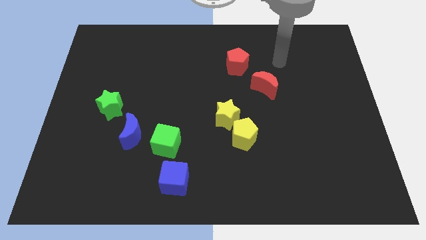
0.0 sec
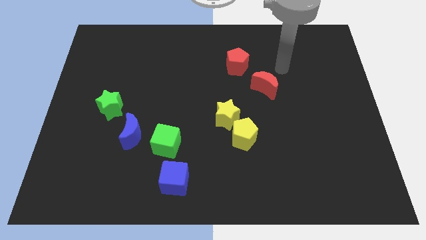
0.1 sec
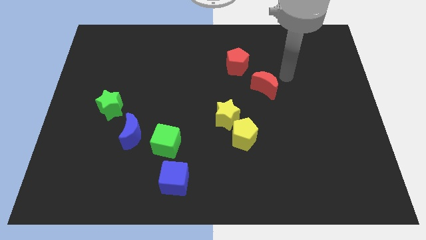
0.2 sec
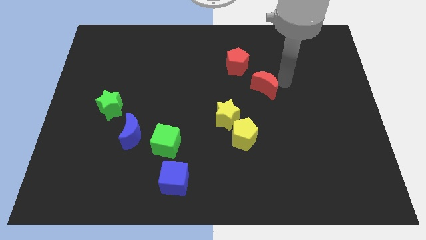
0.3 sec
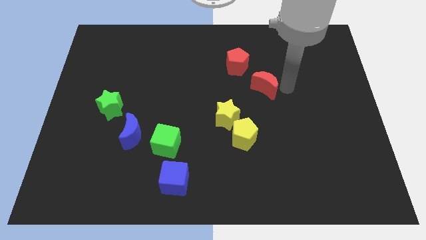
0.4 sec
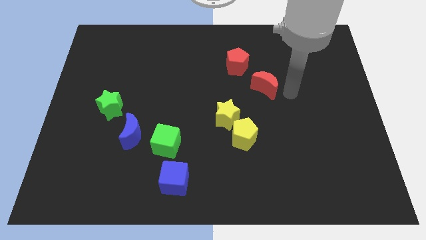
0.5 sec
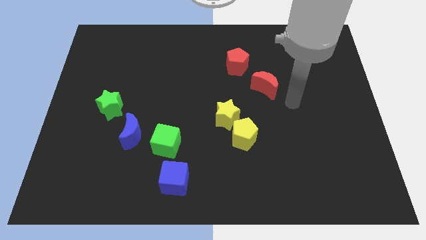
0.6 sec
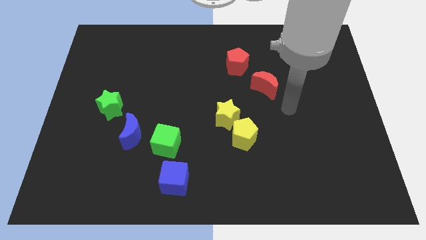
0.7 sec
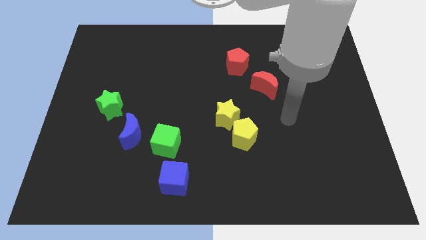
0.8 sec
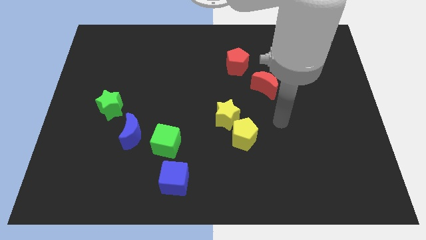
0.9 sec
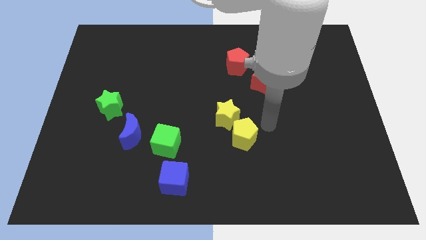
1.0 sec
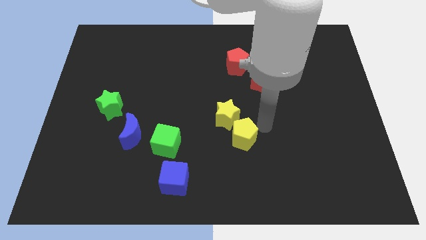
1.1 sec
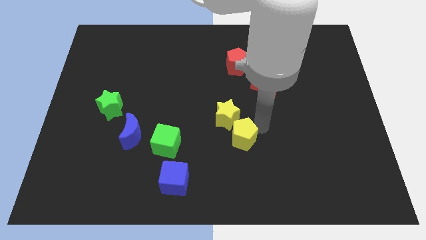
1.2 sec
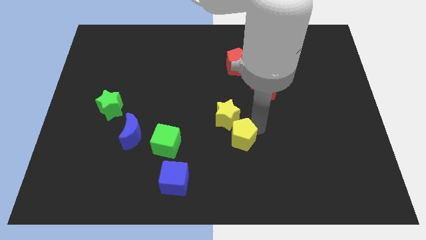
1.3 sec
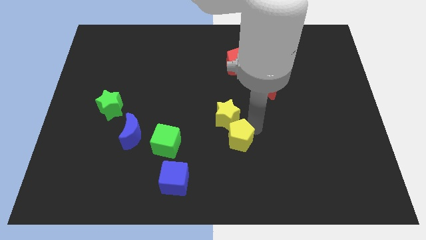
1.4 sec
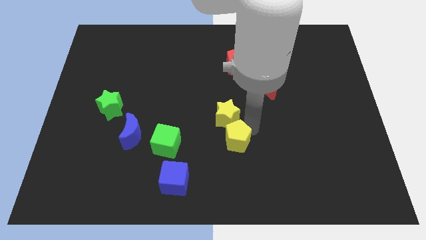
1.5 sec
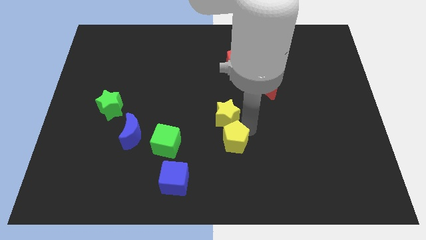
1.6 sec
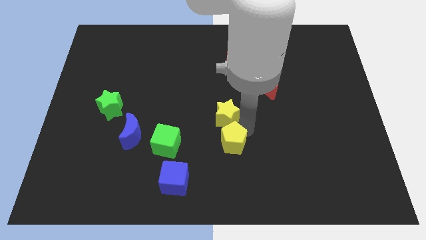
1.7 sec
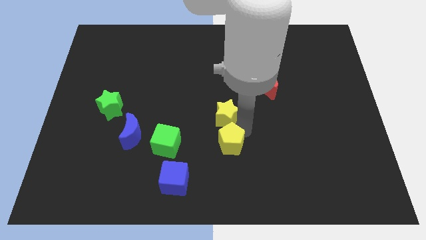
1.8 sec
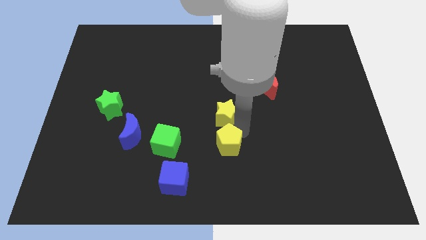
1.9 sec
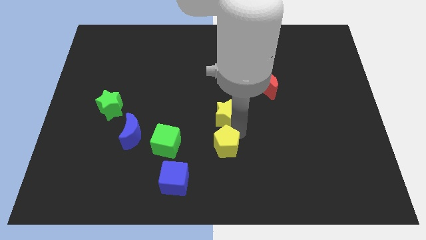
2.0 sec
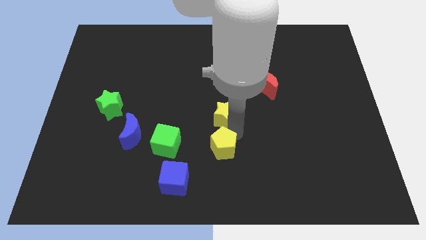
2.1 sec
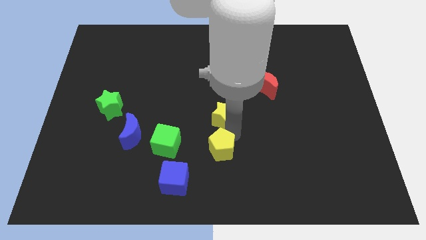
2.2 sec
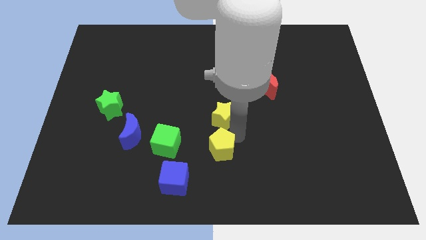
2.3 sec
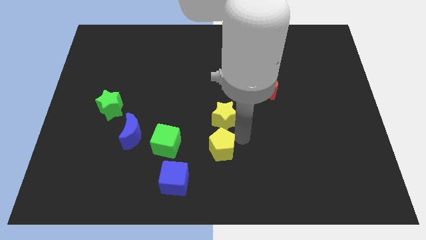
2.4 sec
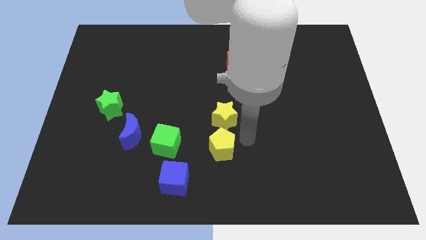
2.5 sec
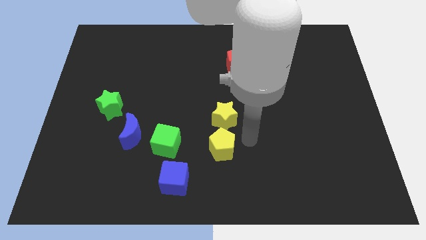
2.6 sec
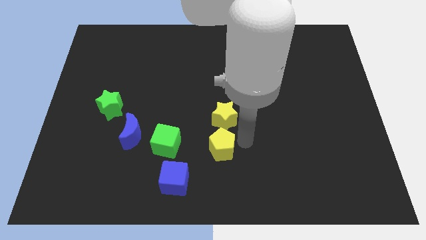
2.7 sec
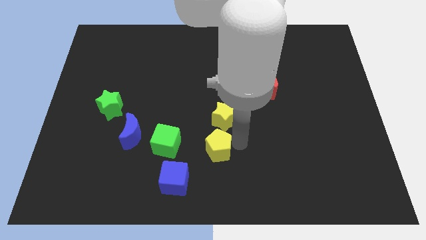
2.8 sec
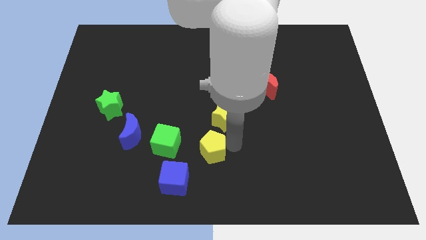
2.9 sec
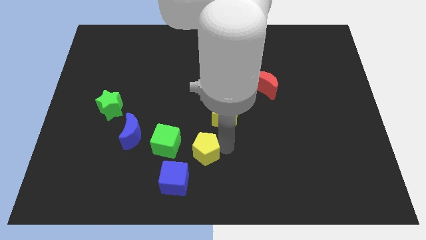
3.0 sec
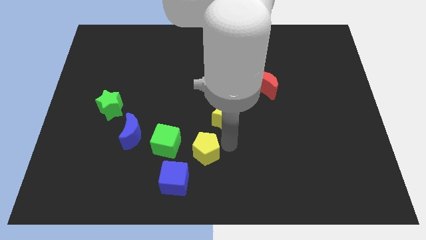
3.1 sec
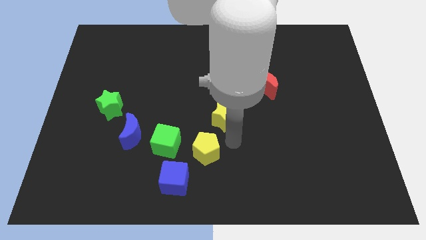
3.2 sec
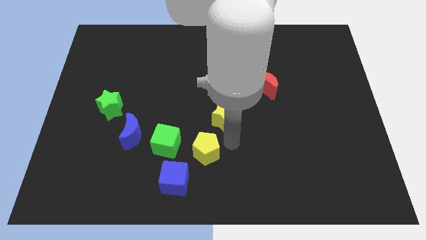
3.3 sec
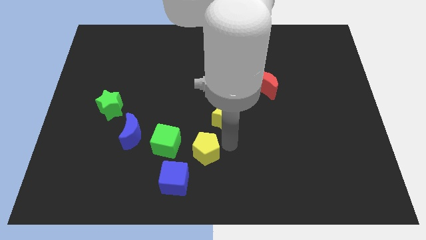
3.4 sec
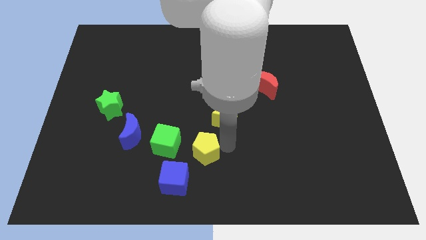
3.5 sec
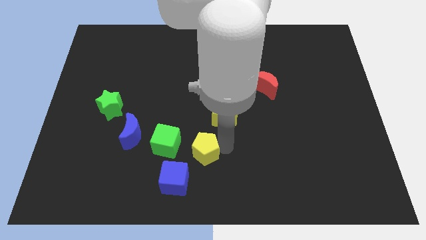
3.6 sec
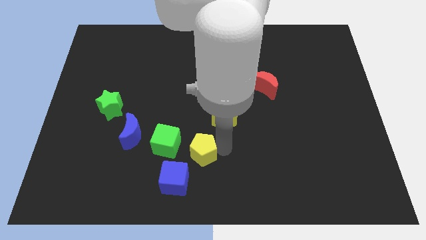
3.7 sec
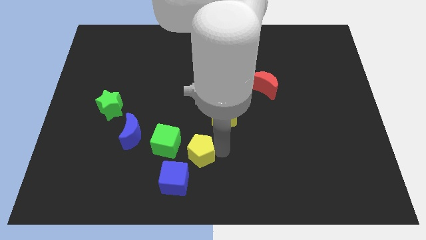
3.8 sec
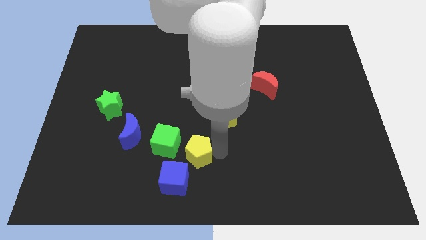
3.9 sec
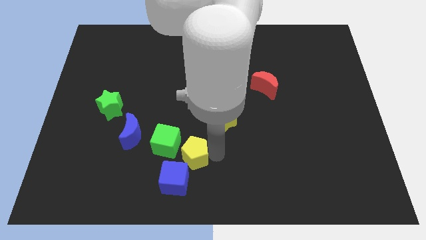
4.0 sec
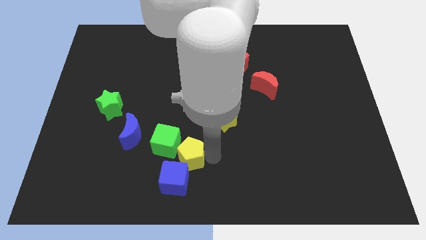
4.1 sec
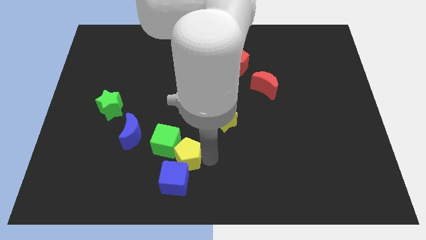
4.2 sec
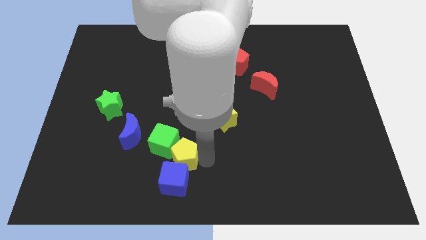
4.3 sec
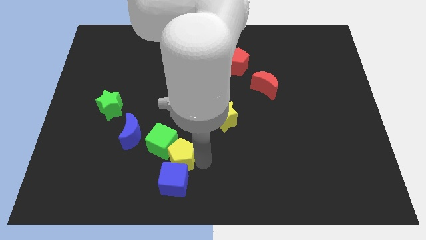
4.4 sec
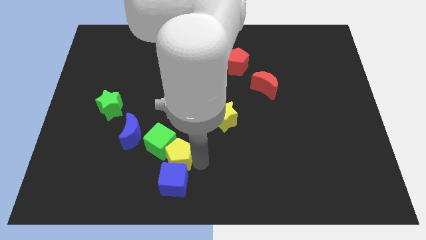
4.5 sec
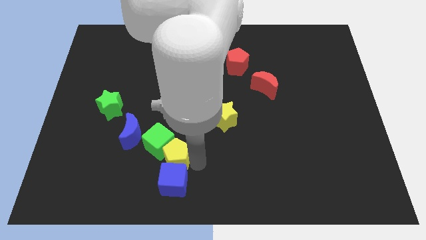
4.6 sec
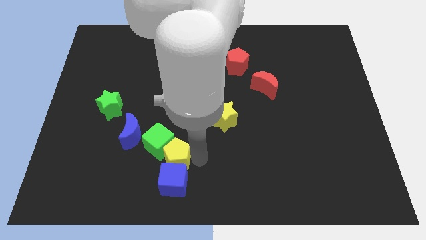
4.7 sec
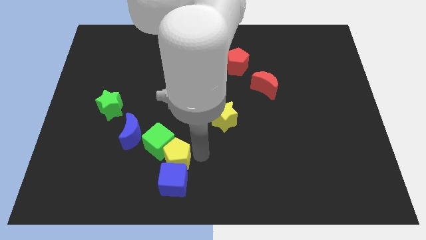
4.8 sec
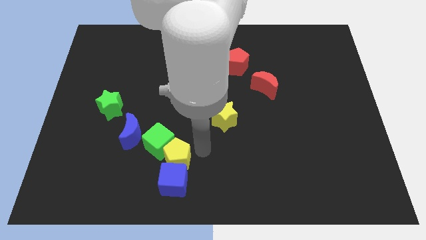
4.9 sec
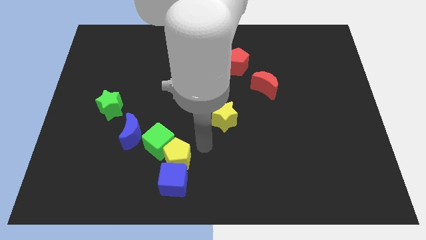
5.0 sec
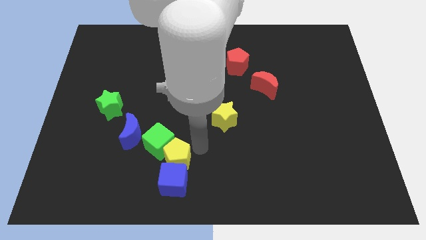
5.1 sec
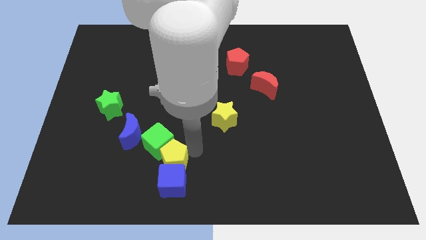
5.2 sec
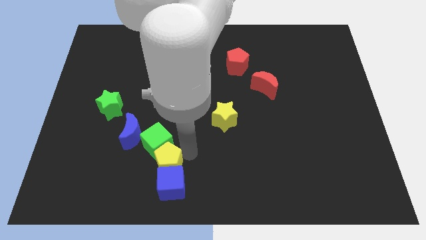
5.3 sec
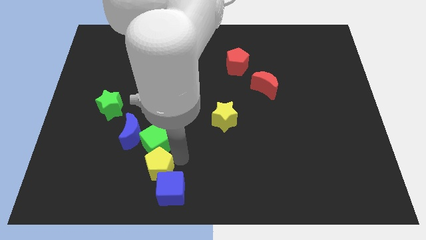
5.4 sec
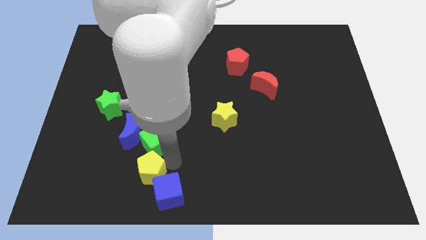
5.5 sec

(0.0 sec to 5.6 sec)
move the yellow pentagon to the bottom of the blue moon

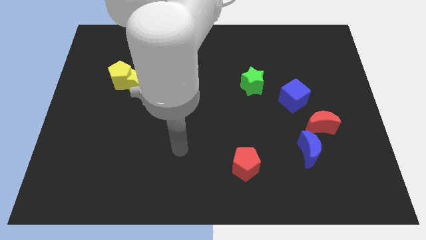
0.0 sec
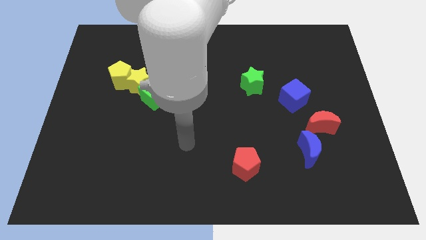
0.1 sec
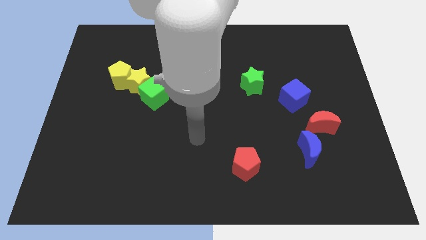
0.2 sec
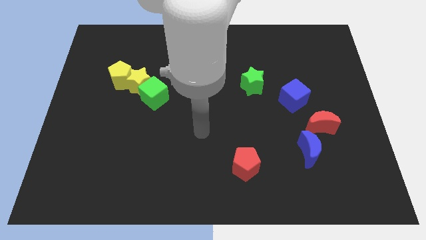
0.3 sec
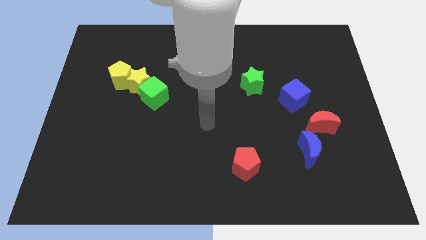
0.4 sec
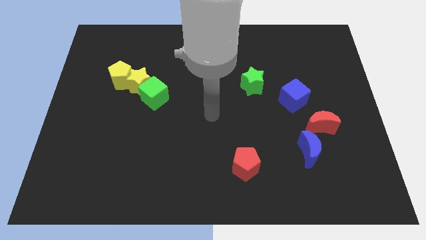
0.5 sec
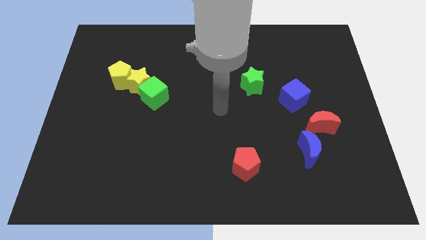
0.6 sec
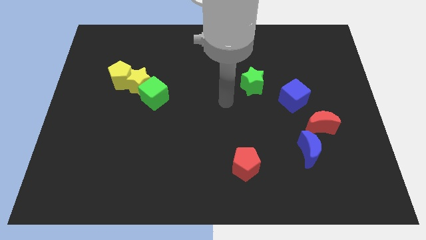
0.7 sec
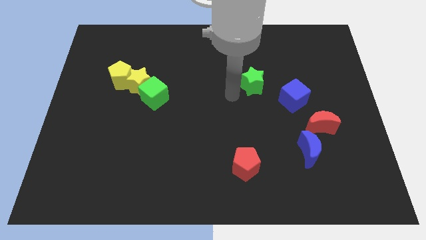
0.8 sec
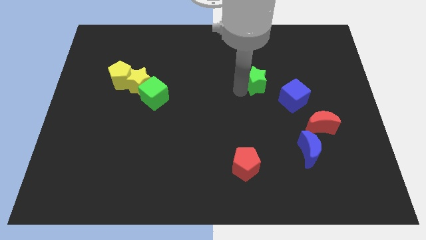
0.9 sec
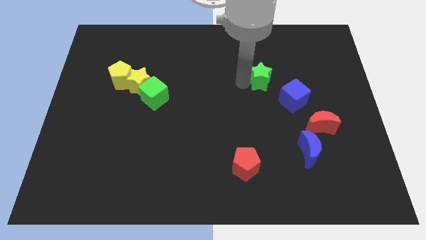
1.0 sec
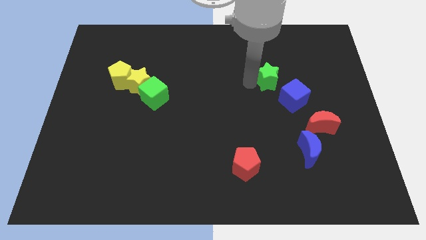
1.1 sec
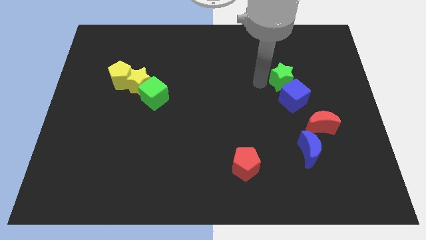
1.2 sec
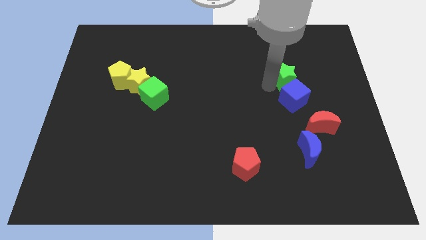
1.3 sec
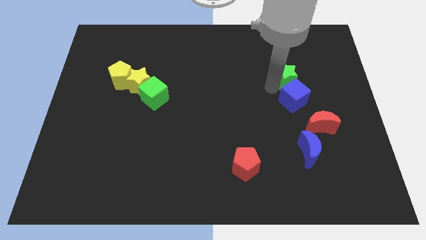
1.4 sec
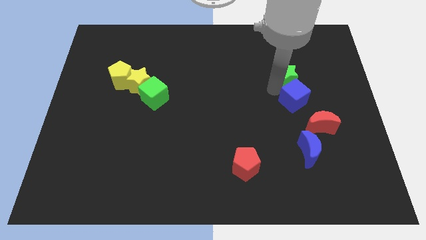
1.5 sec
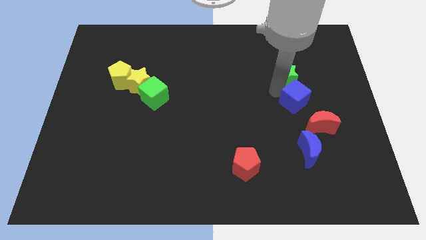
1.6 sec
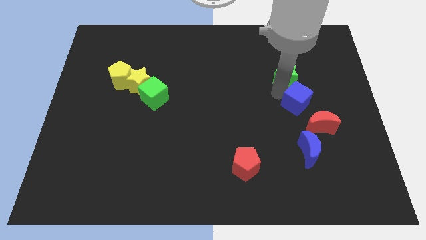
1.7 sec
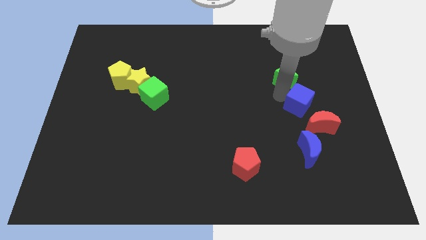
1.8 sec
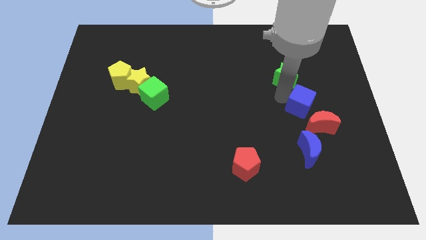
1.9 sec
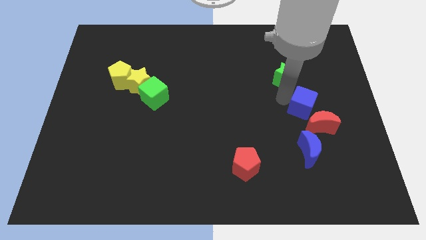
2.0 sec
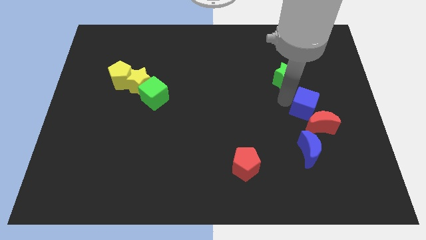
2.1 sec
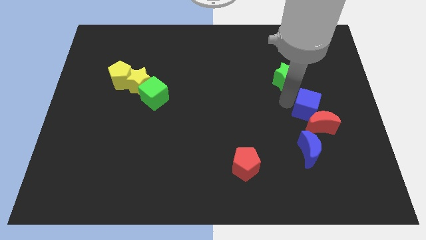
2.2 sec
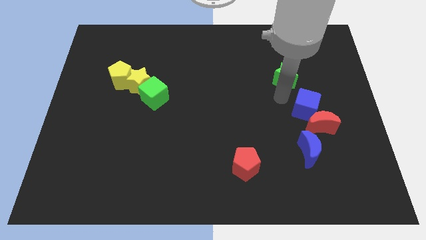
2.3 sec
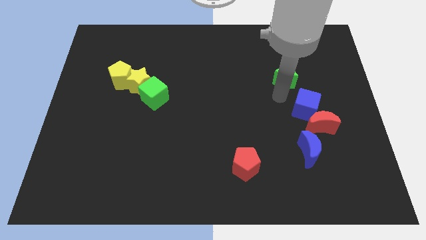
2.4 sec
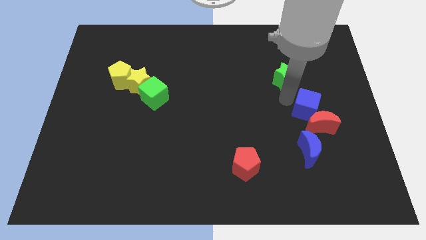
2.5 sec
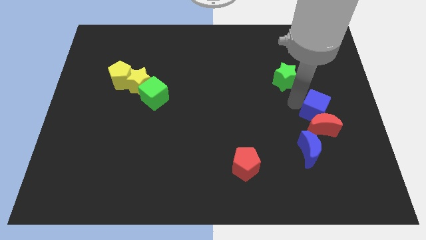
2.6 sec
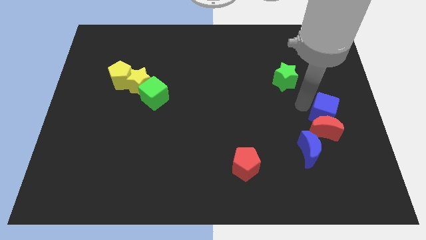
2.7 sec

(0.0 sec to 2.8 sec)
slide the blue cube to the top right side of the blue moon
